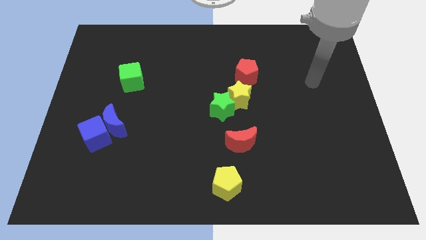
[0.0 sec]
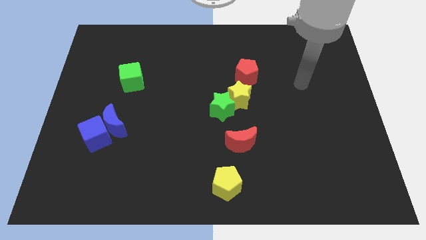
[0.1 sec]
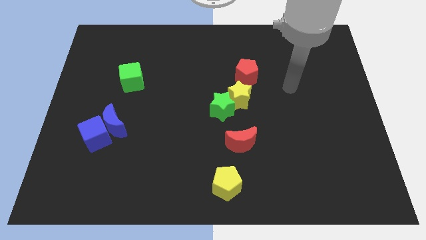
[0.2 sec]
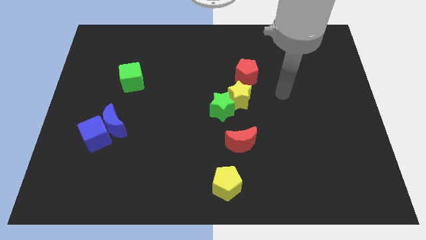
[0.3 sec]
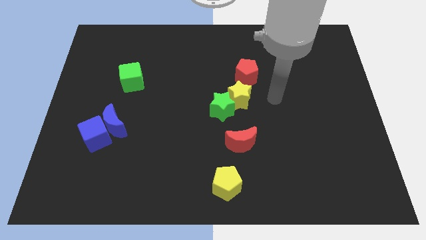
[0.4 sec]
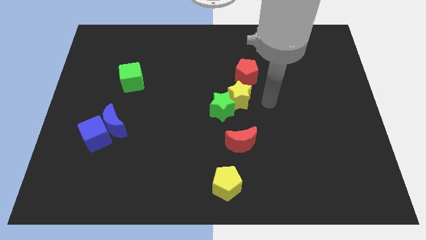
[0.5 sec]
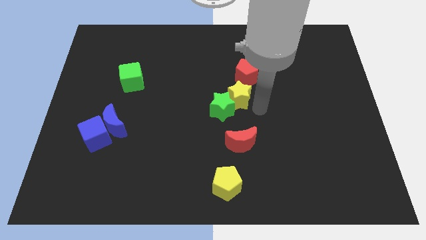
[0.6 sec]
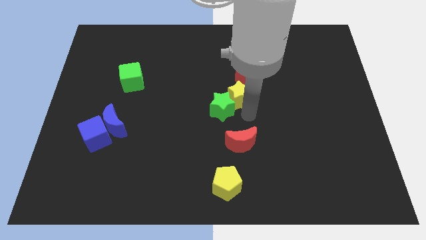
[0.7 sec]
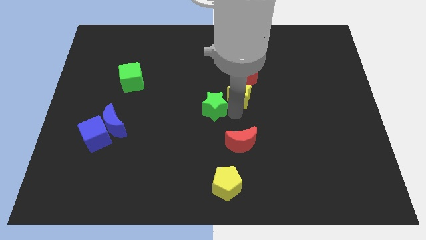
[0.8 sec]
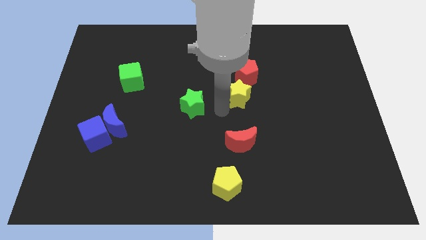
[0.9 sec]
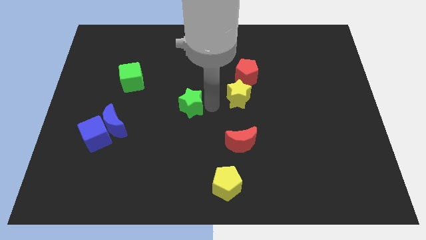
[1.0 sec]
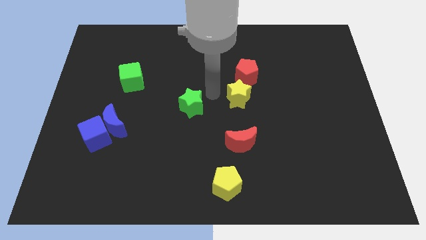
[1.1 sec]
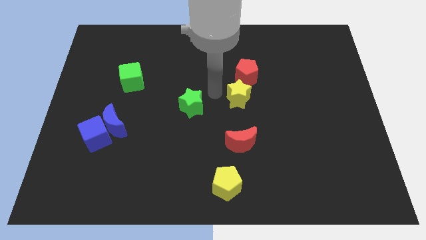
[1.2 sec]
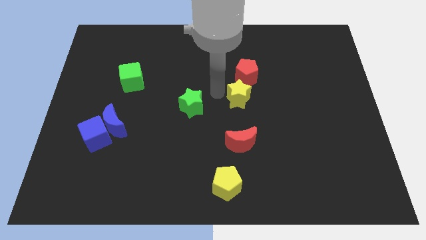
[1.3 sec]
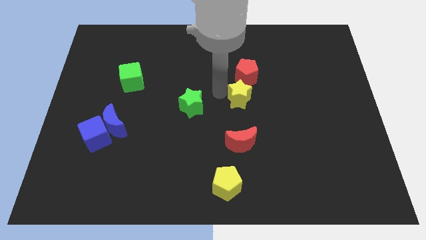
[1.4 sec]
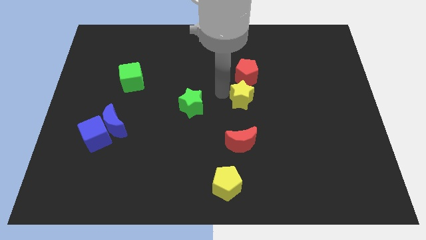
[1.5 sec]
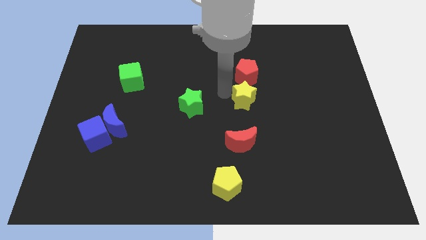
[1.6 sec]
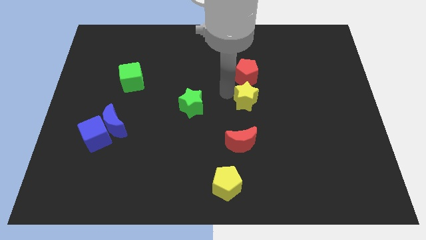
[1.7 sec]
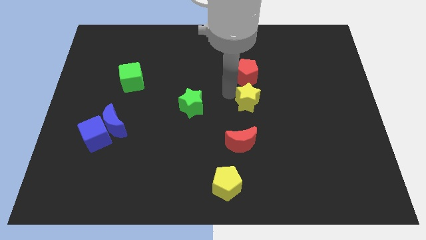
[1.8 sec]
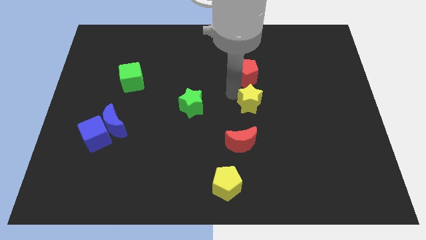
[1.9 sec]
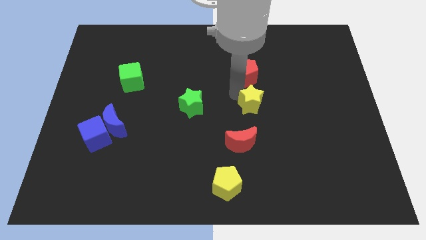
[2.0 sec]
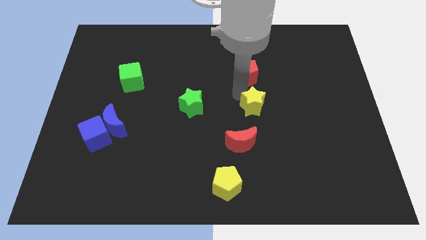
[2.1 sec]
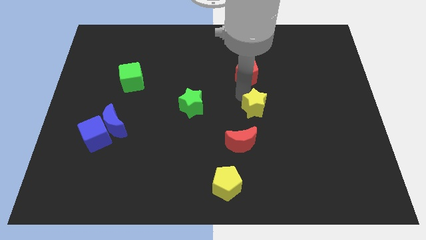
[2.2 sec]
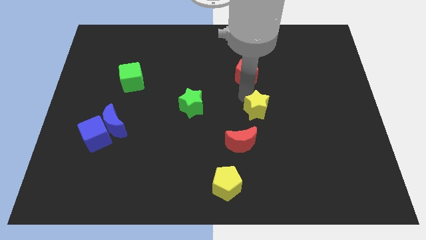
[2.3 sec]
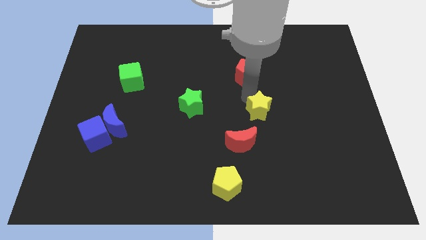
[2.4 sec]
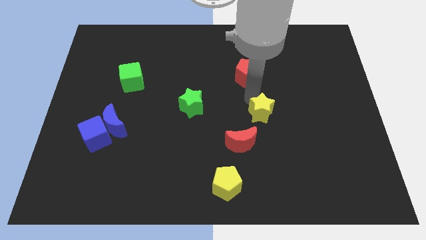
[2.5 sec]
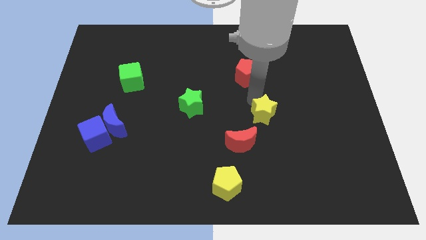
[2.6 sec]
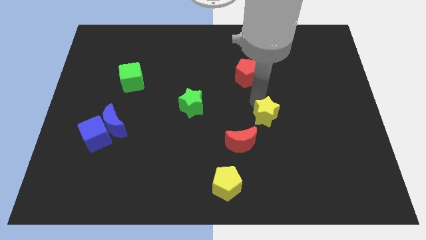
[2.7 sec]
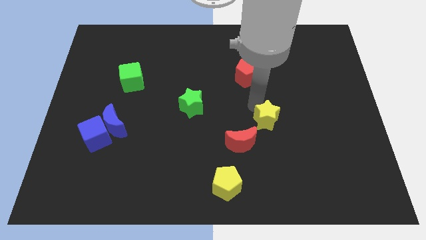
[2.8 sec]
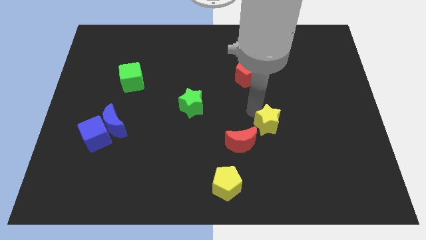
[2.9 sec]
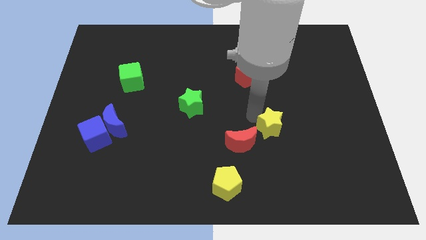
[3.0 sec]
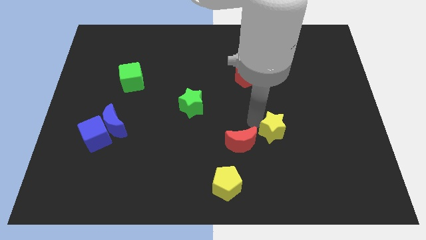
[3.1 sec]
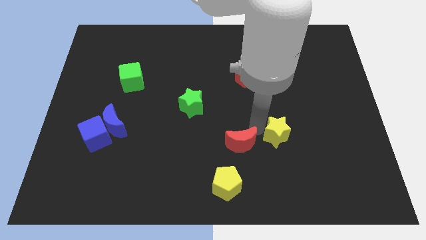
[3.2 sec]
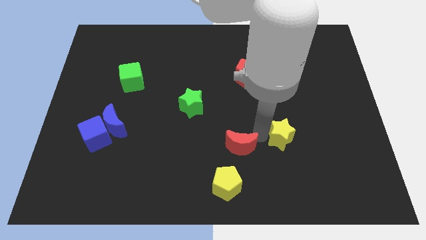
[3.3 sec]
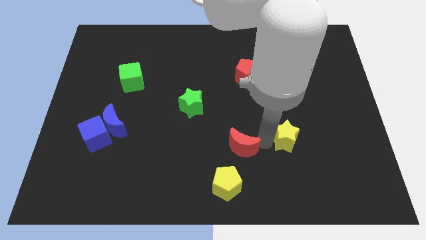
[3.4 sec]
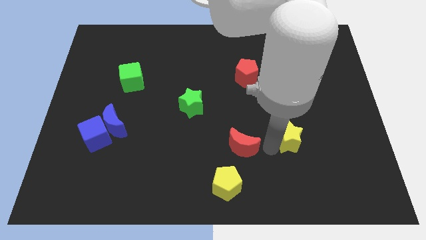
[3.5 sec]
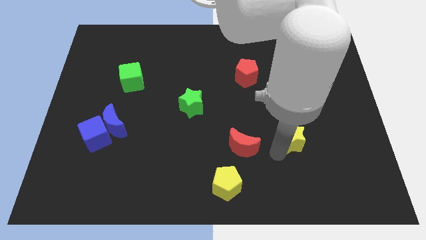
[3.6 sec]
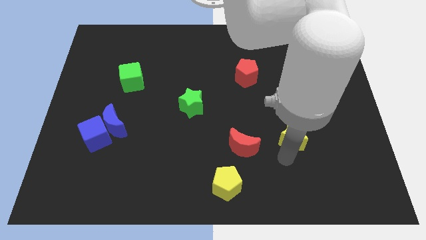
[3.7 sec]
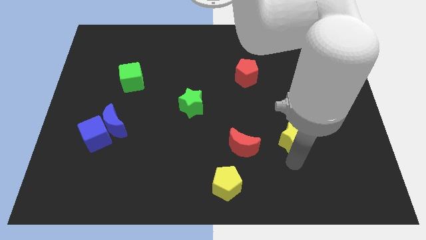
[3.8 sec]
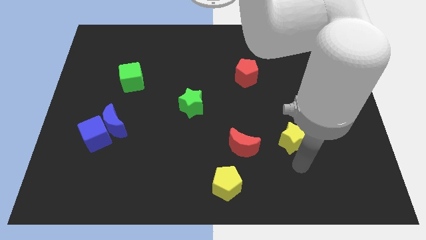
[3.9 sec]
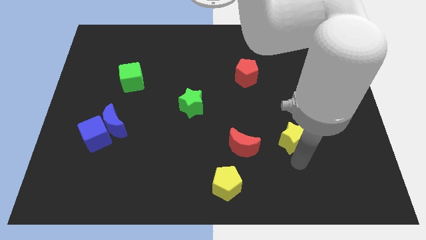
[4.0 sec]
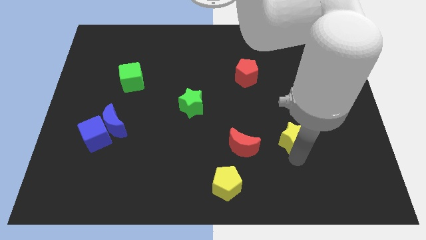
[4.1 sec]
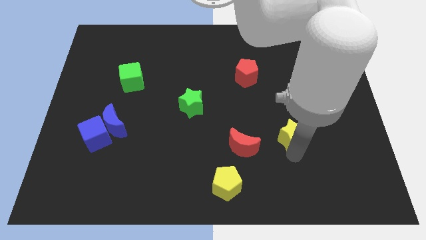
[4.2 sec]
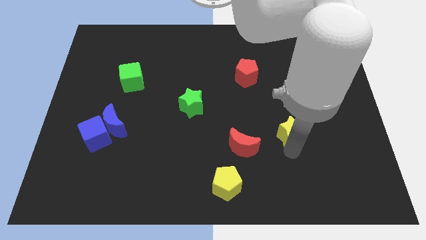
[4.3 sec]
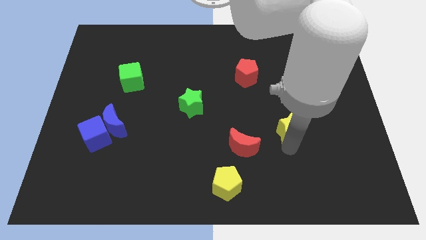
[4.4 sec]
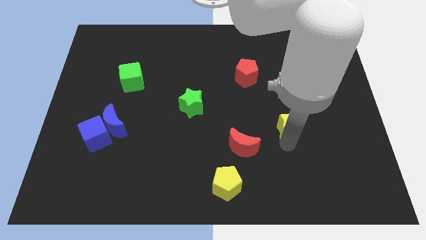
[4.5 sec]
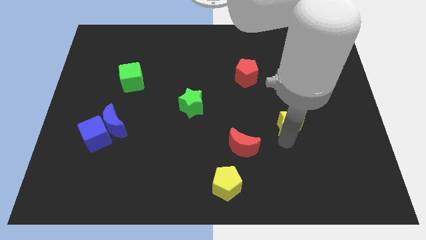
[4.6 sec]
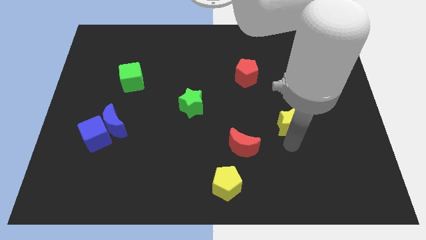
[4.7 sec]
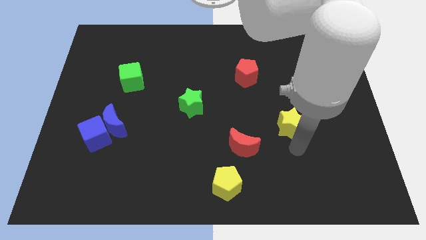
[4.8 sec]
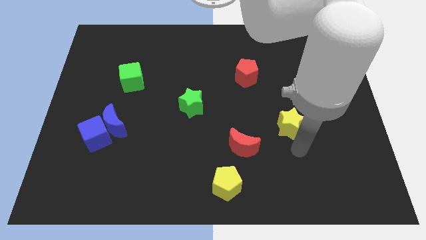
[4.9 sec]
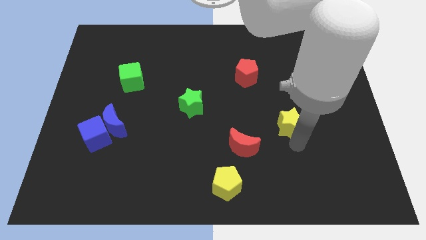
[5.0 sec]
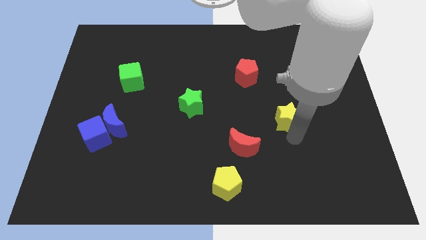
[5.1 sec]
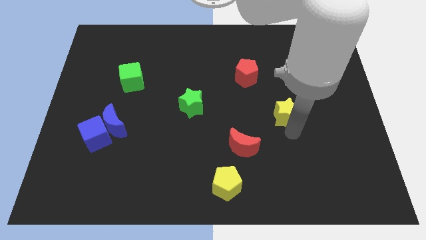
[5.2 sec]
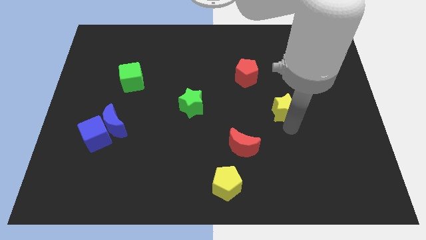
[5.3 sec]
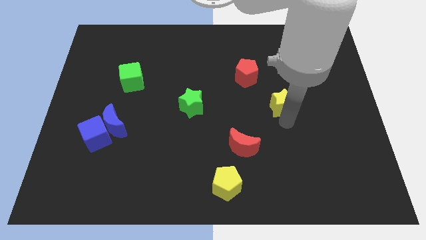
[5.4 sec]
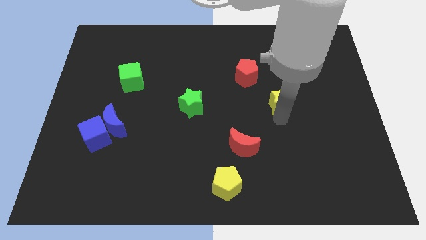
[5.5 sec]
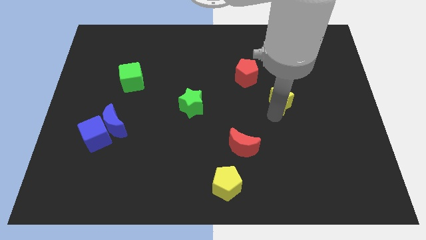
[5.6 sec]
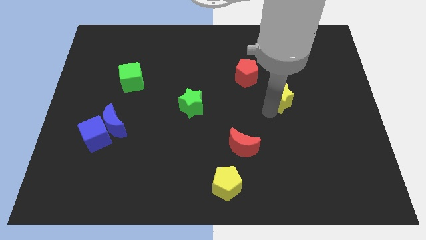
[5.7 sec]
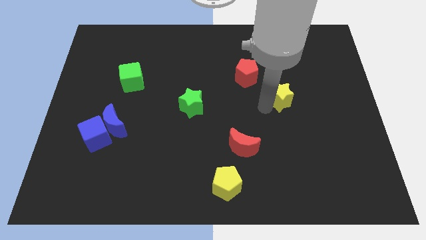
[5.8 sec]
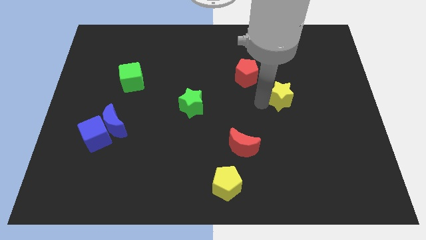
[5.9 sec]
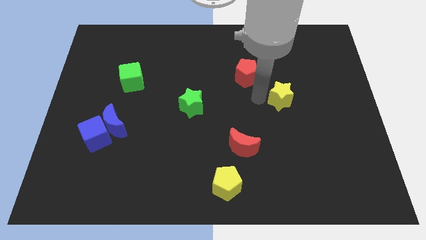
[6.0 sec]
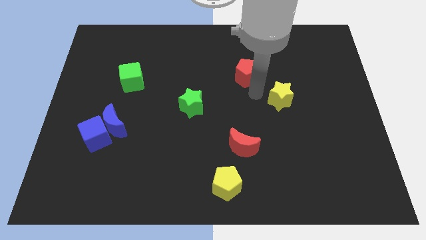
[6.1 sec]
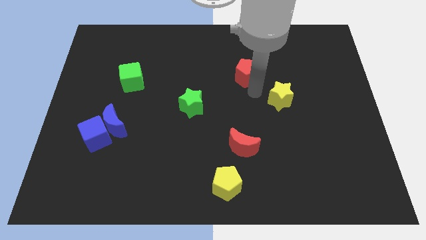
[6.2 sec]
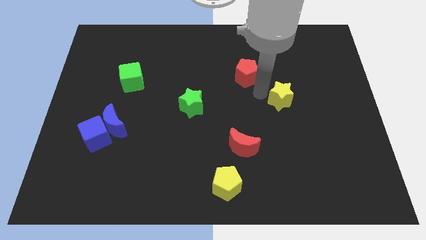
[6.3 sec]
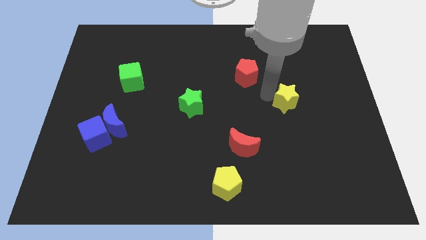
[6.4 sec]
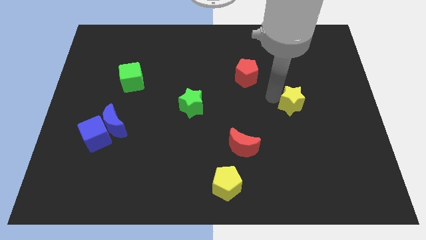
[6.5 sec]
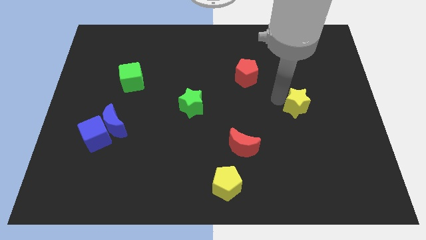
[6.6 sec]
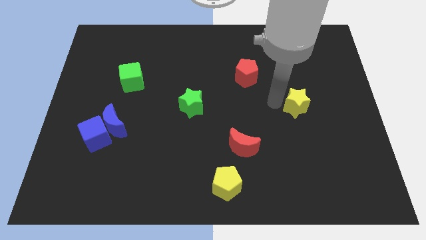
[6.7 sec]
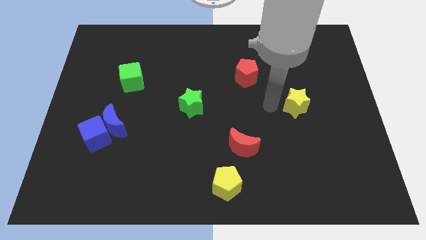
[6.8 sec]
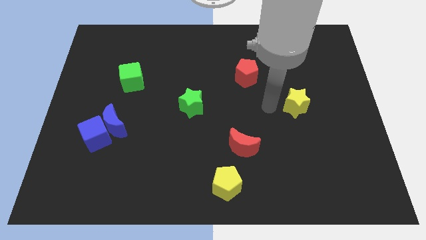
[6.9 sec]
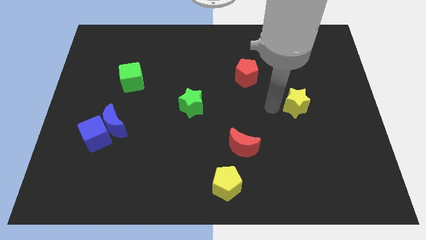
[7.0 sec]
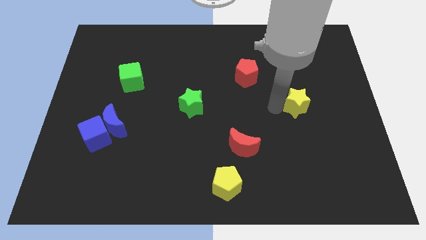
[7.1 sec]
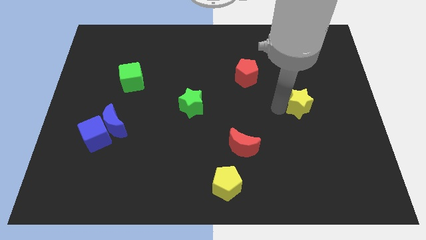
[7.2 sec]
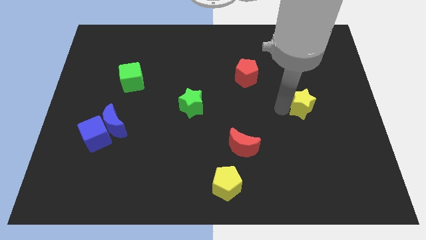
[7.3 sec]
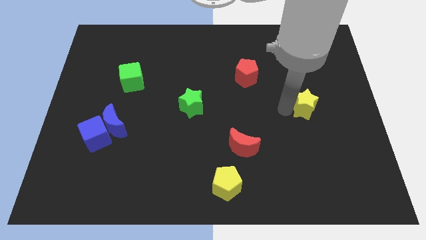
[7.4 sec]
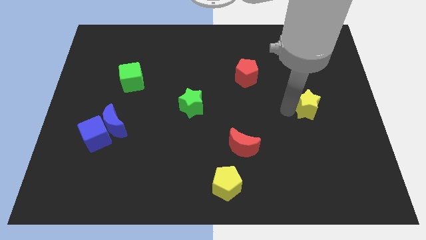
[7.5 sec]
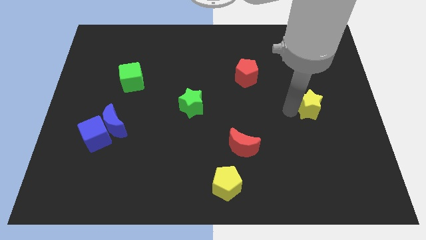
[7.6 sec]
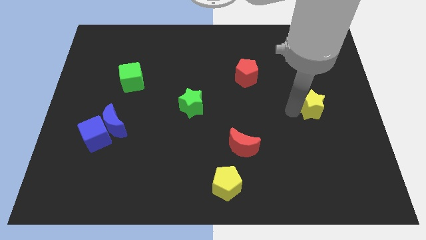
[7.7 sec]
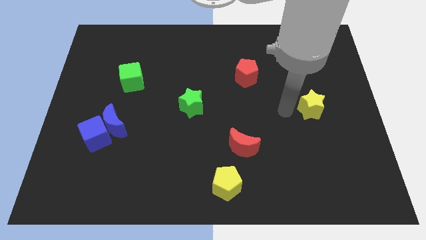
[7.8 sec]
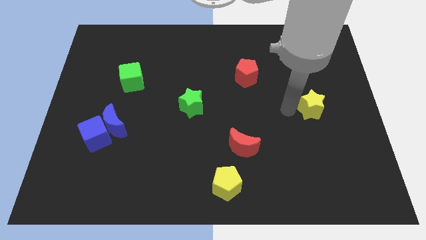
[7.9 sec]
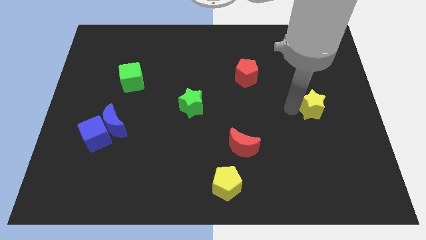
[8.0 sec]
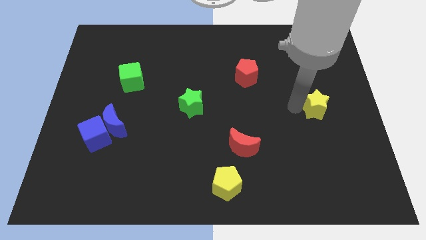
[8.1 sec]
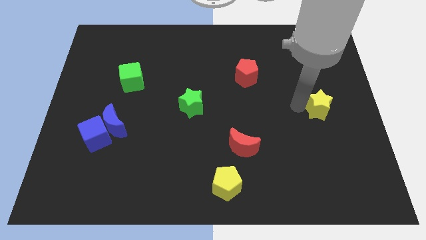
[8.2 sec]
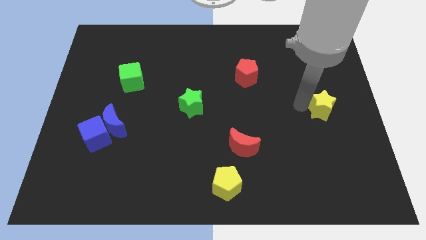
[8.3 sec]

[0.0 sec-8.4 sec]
push the yellow star to the right side of the board
